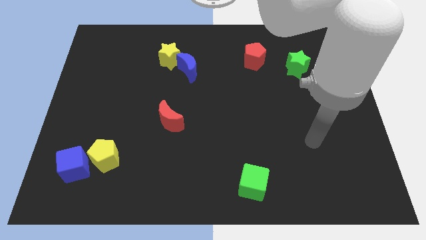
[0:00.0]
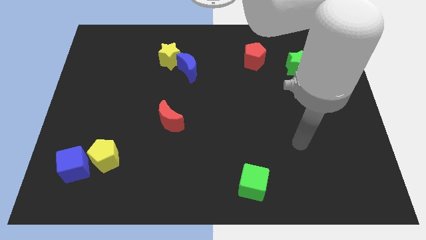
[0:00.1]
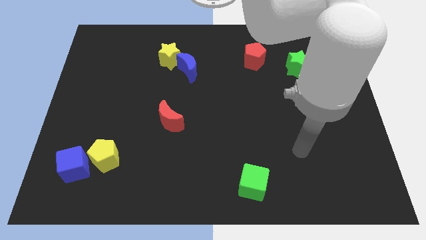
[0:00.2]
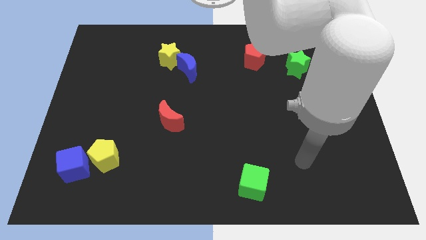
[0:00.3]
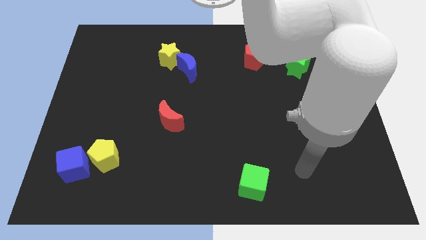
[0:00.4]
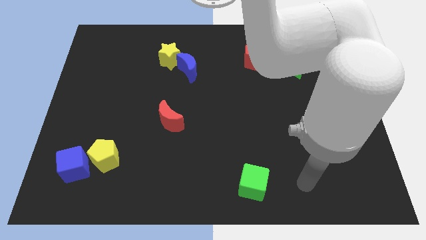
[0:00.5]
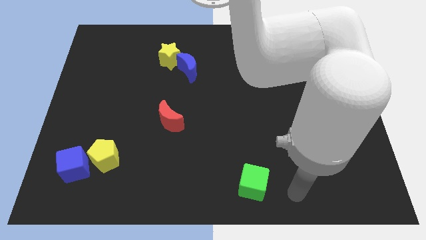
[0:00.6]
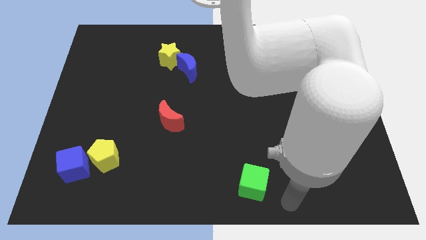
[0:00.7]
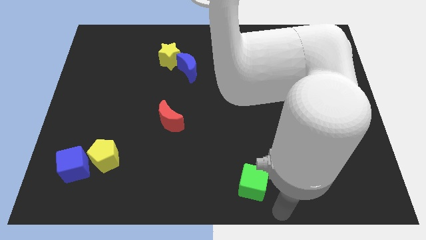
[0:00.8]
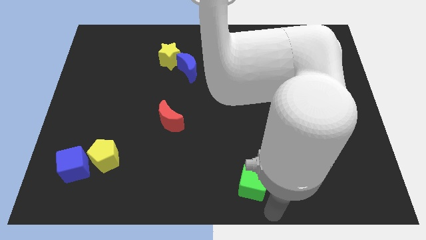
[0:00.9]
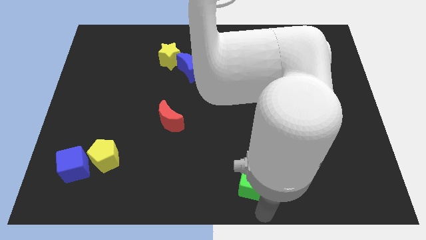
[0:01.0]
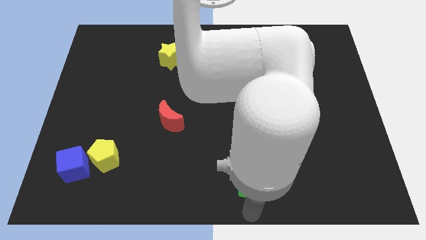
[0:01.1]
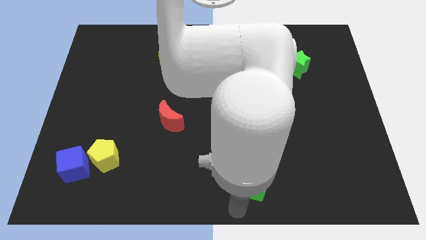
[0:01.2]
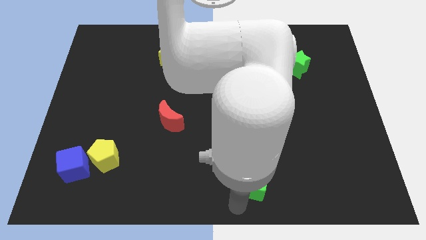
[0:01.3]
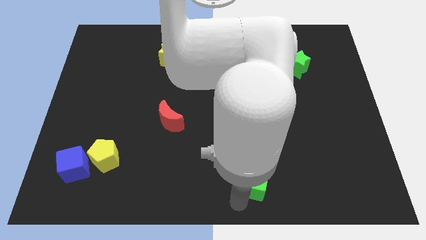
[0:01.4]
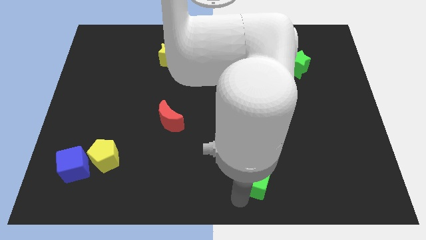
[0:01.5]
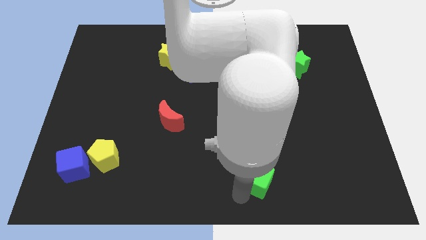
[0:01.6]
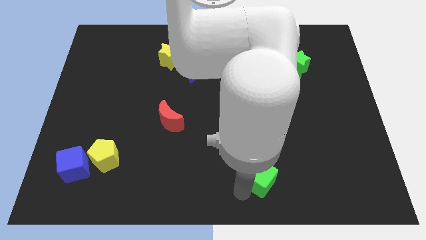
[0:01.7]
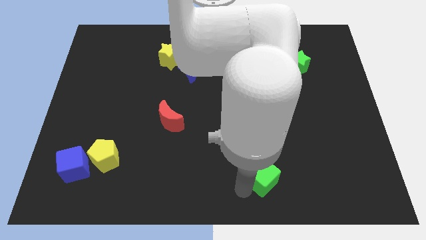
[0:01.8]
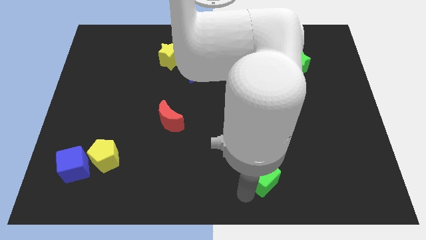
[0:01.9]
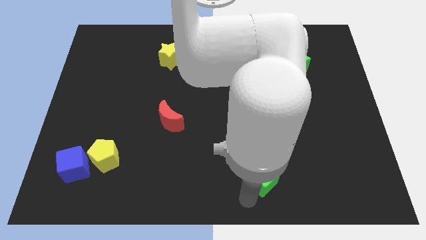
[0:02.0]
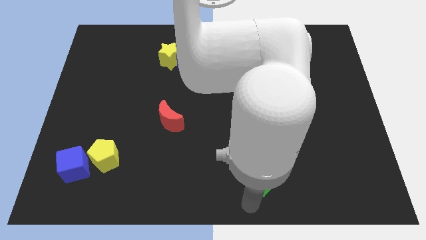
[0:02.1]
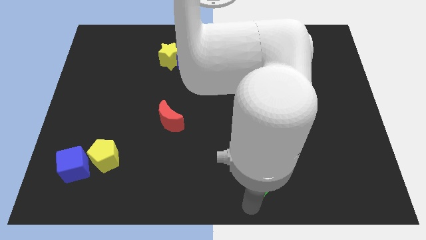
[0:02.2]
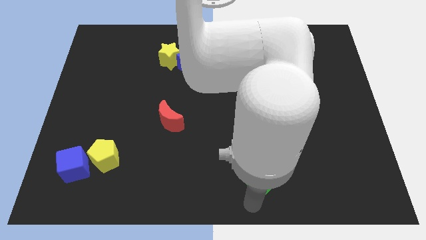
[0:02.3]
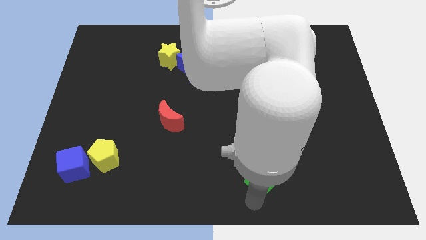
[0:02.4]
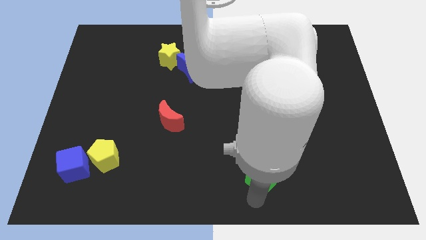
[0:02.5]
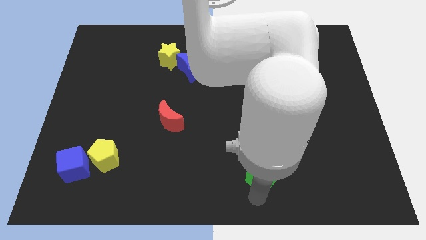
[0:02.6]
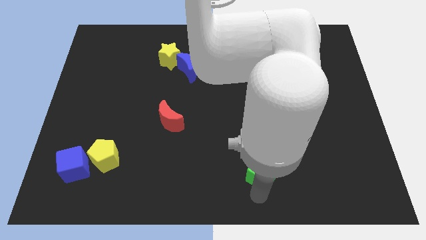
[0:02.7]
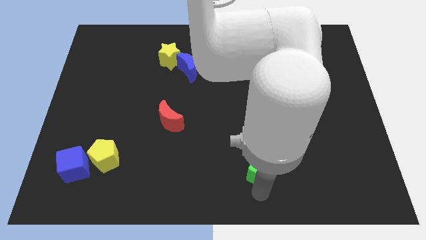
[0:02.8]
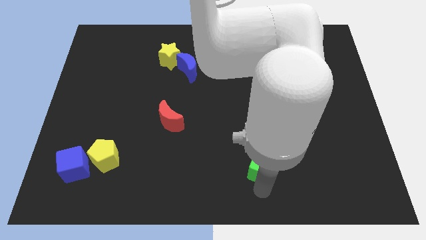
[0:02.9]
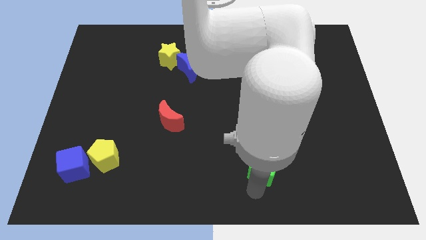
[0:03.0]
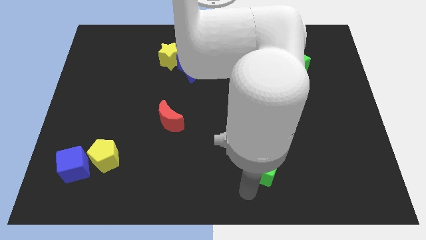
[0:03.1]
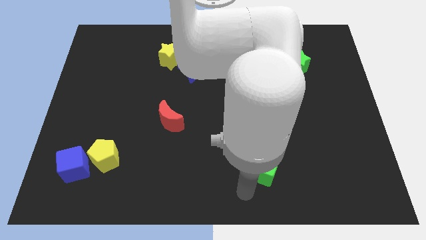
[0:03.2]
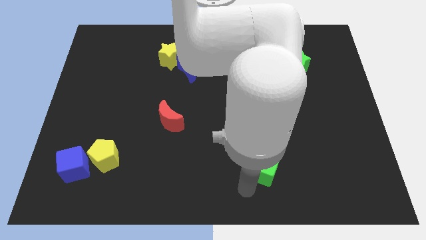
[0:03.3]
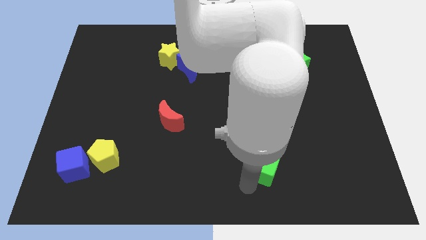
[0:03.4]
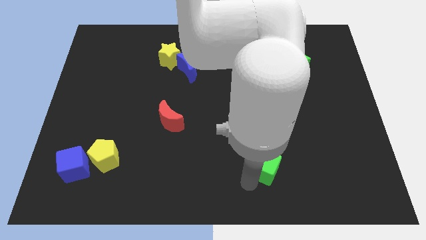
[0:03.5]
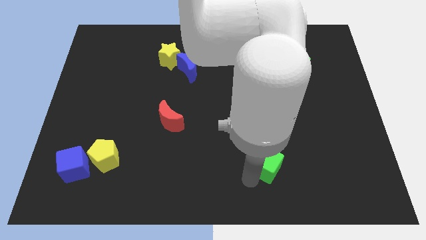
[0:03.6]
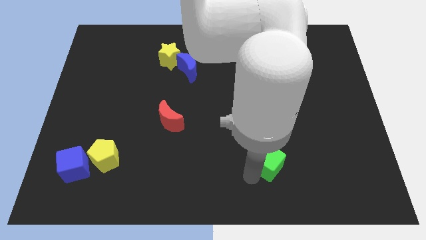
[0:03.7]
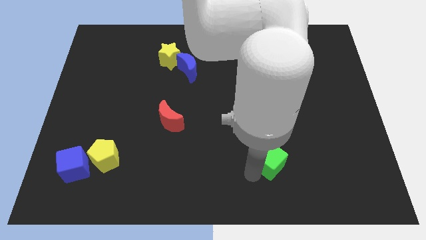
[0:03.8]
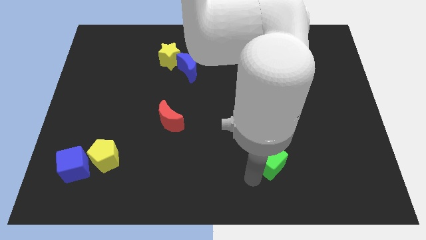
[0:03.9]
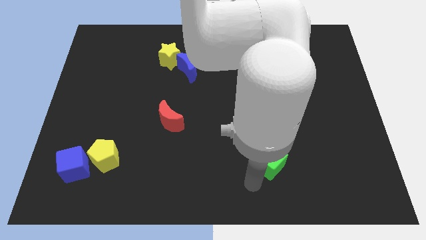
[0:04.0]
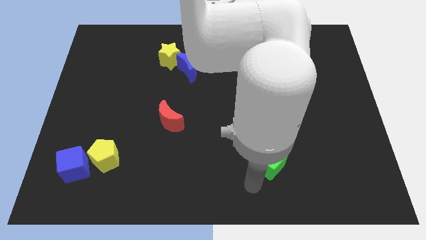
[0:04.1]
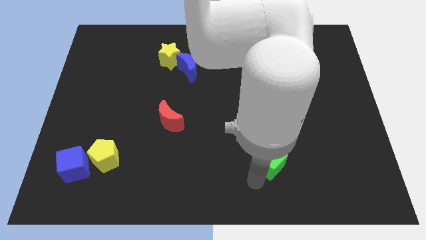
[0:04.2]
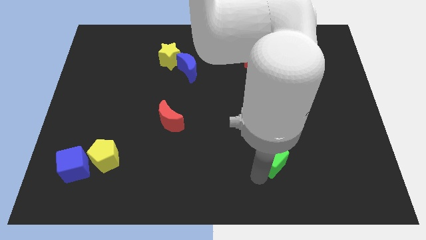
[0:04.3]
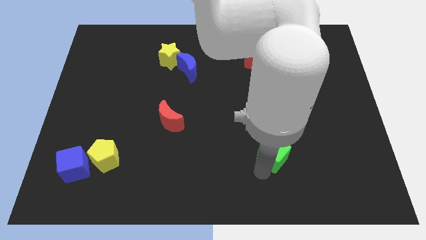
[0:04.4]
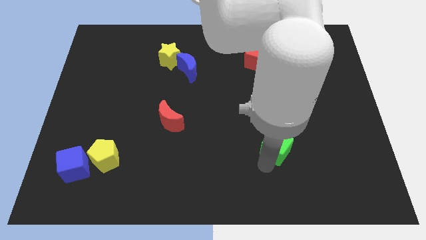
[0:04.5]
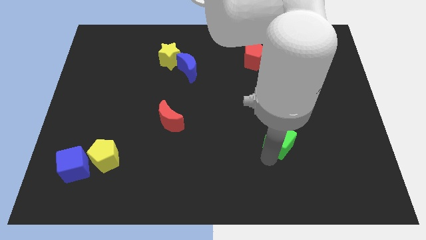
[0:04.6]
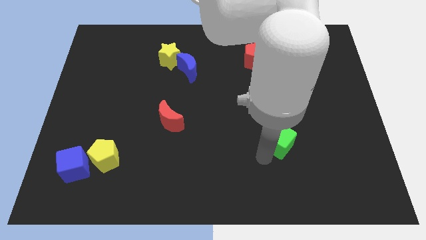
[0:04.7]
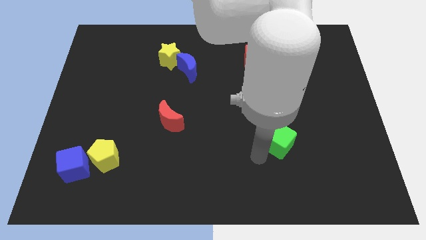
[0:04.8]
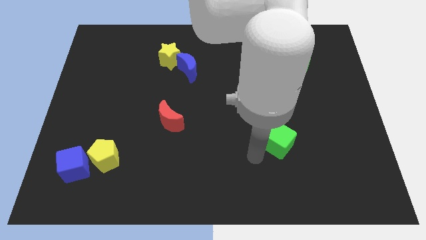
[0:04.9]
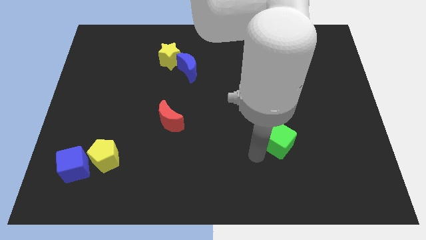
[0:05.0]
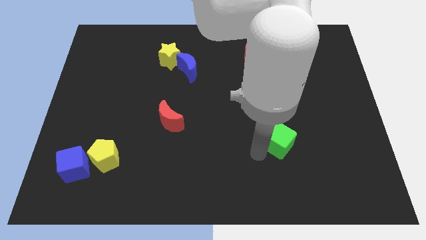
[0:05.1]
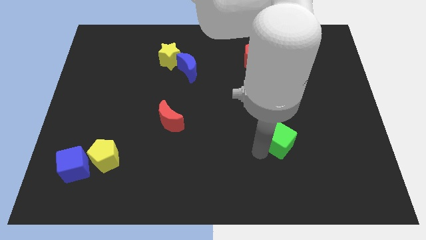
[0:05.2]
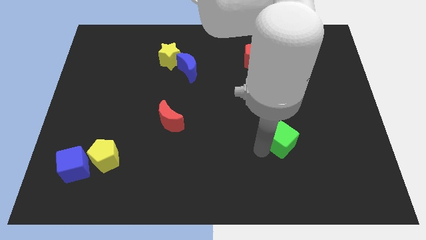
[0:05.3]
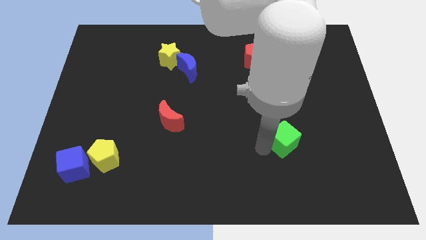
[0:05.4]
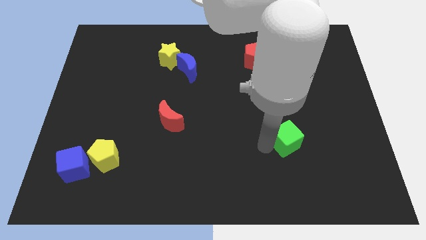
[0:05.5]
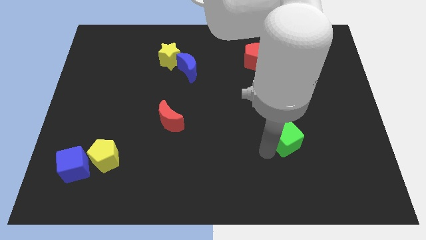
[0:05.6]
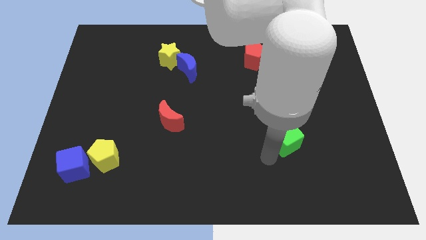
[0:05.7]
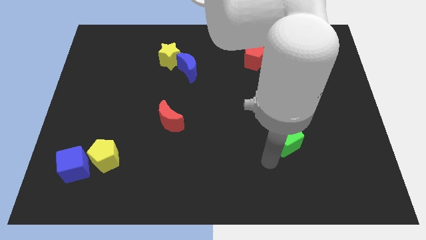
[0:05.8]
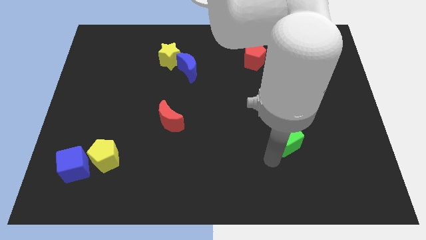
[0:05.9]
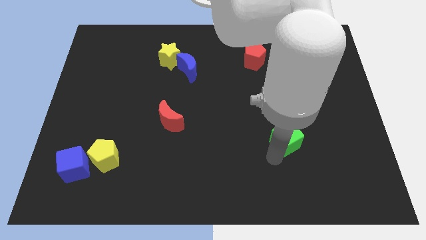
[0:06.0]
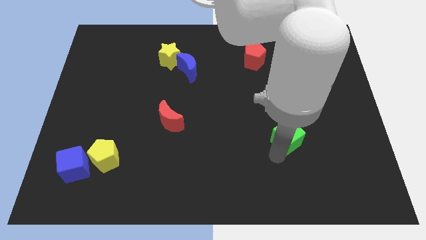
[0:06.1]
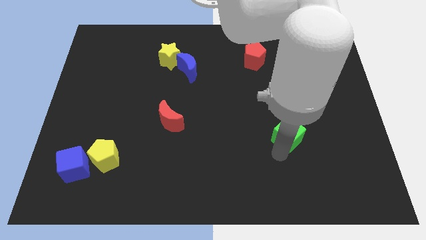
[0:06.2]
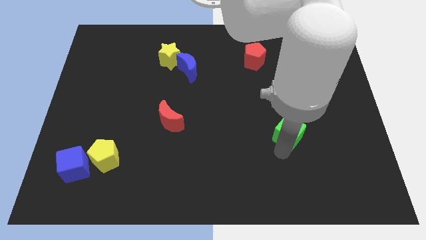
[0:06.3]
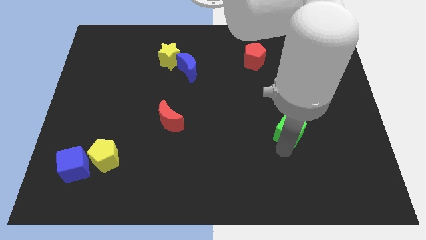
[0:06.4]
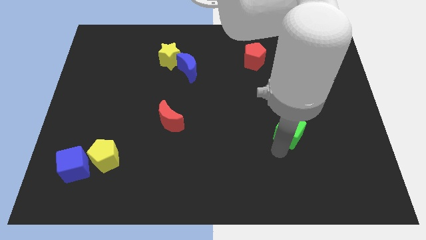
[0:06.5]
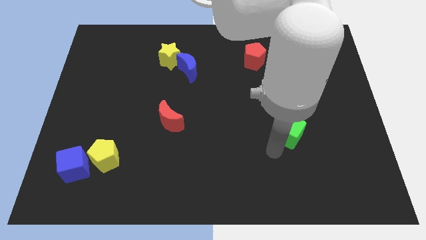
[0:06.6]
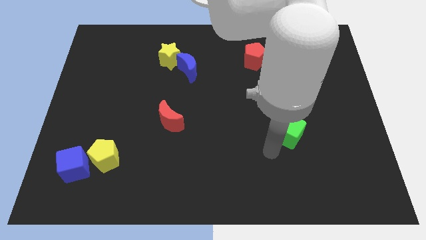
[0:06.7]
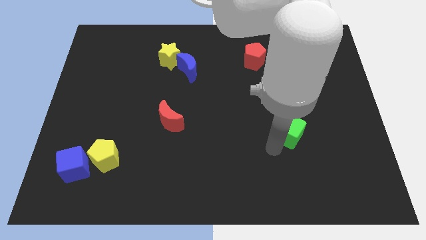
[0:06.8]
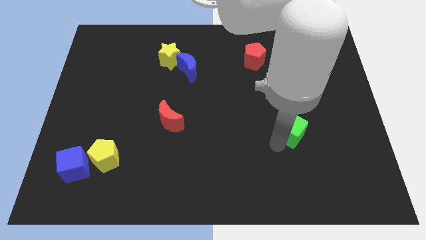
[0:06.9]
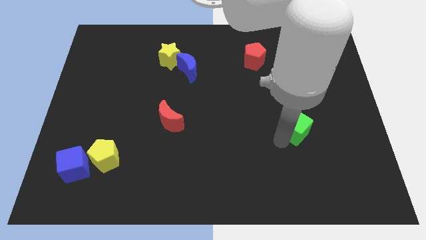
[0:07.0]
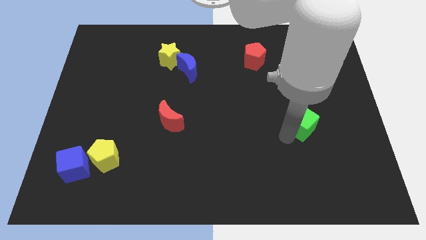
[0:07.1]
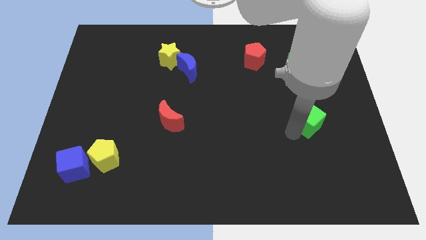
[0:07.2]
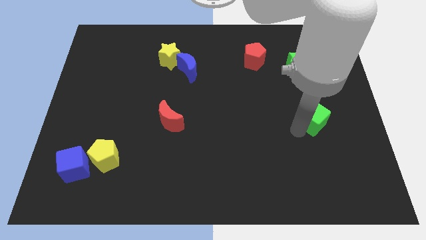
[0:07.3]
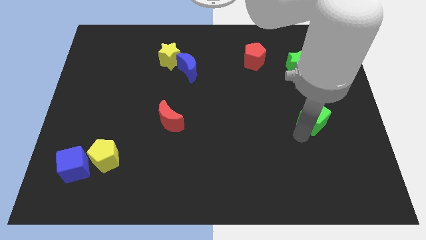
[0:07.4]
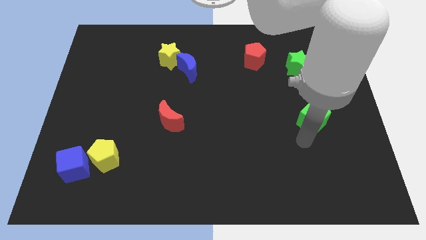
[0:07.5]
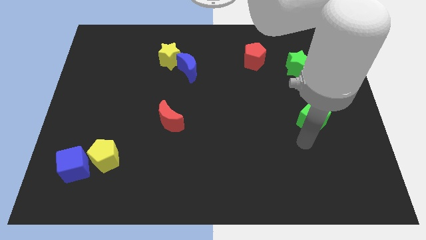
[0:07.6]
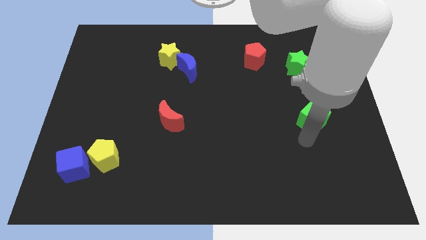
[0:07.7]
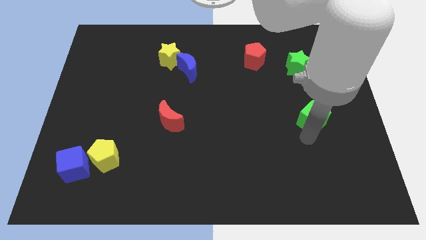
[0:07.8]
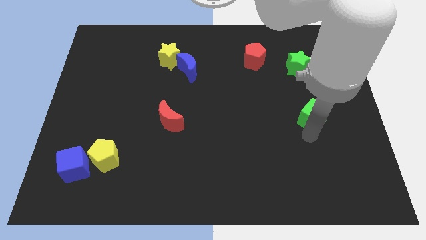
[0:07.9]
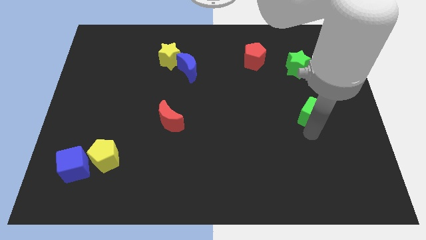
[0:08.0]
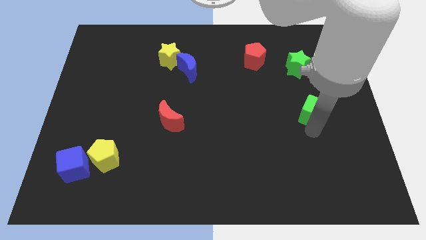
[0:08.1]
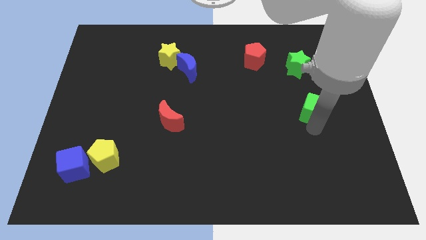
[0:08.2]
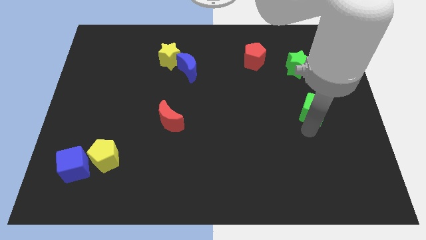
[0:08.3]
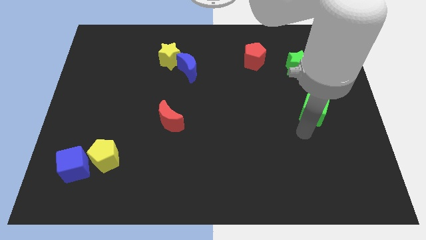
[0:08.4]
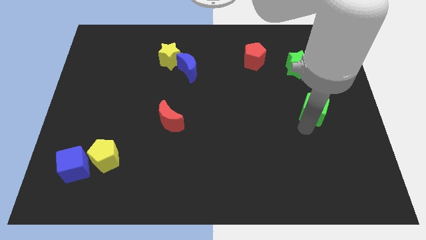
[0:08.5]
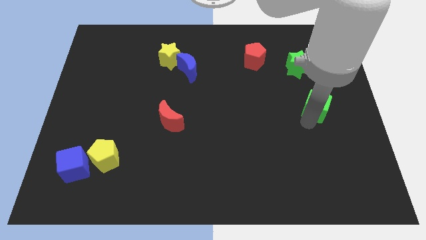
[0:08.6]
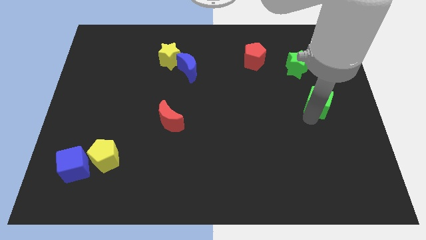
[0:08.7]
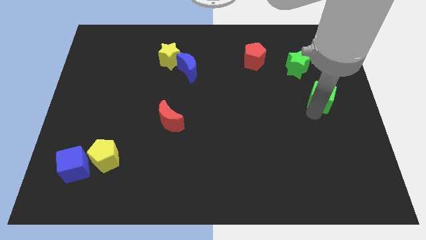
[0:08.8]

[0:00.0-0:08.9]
put the green cube to the bottom right of the green star
